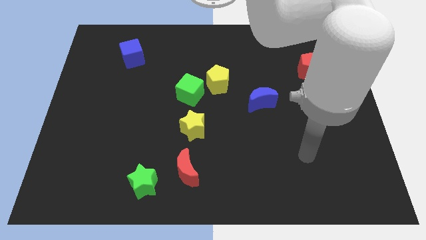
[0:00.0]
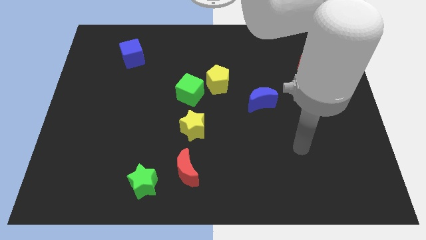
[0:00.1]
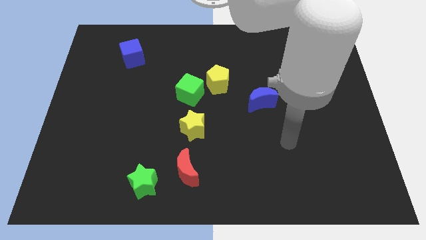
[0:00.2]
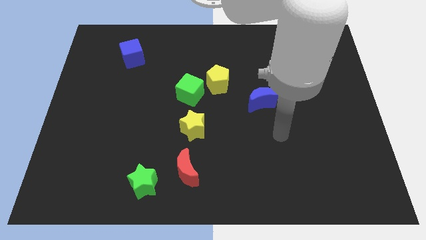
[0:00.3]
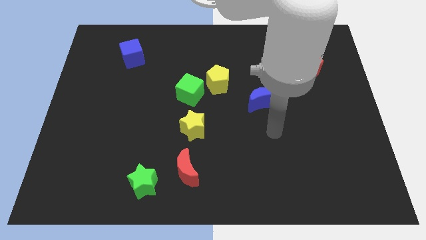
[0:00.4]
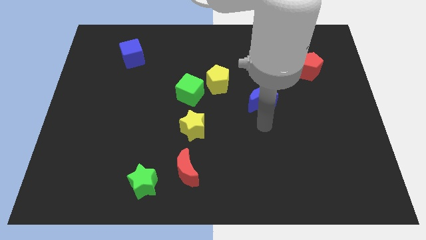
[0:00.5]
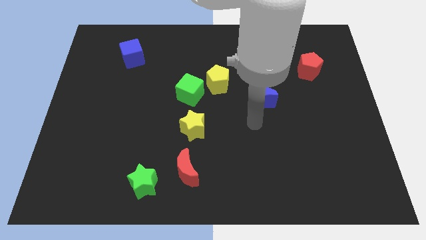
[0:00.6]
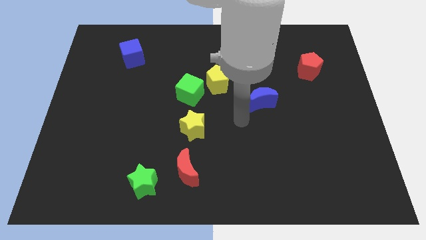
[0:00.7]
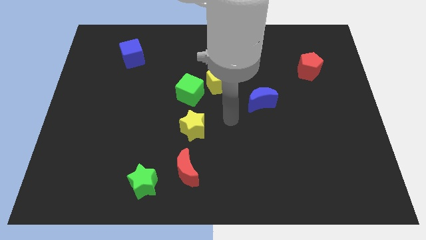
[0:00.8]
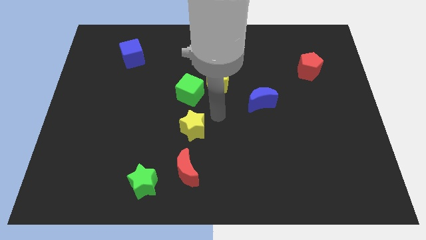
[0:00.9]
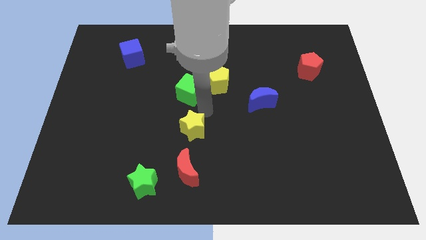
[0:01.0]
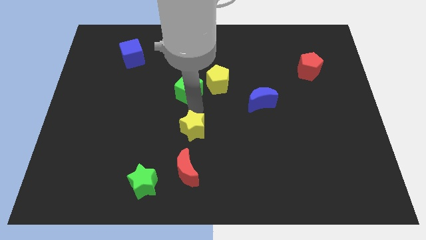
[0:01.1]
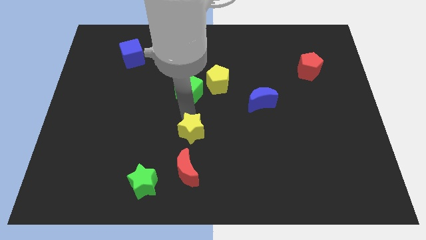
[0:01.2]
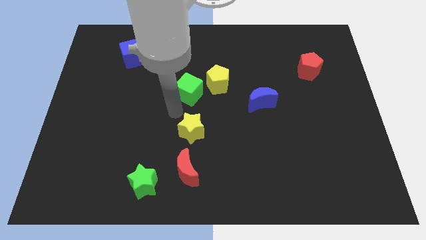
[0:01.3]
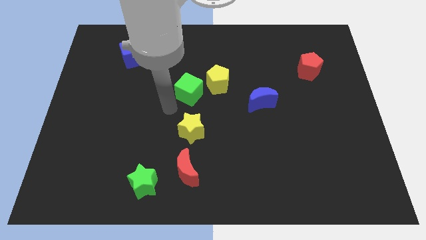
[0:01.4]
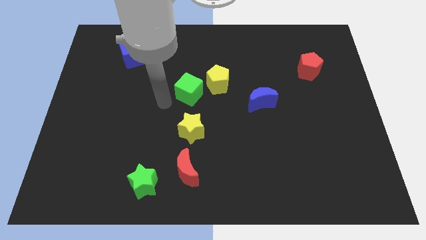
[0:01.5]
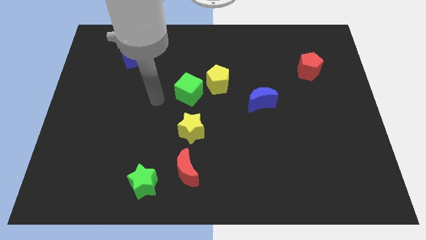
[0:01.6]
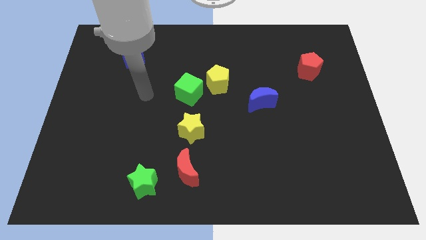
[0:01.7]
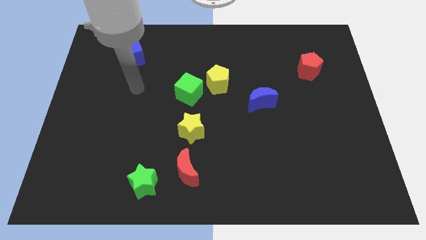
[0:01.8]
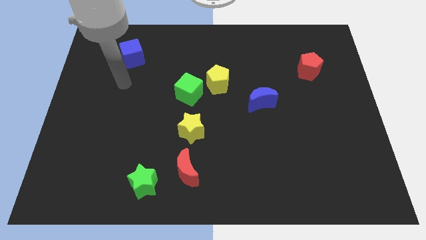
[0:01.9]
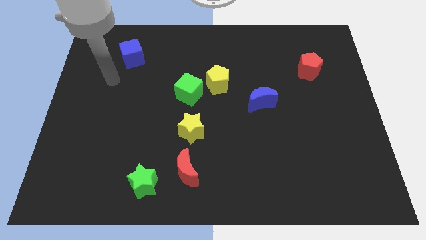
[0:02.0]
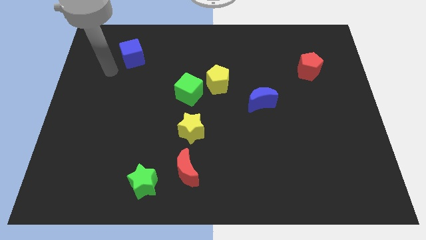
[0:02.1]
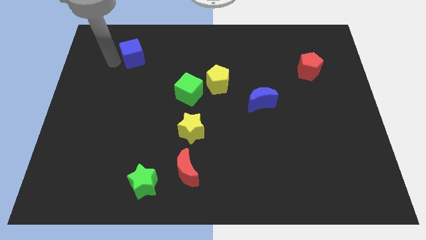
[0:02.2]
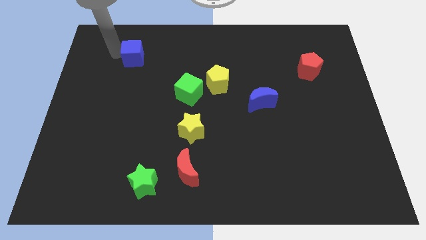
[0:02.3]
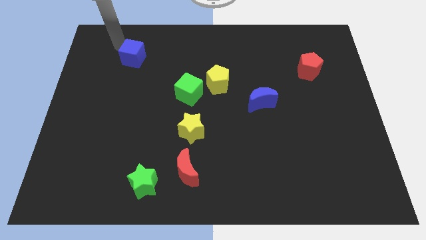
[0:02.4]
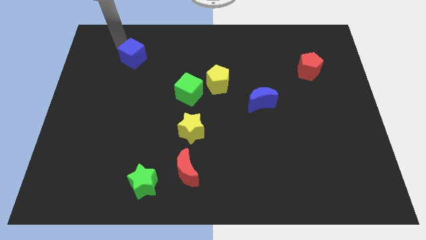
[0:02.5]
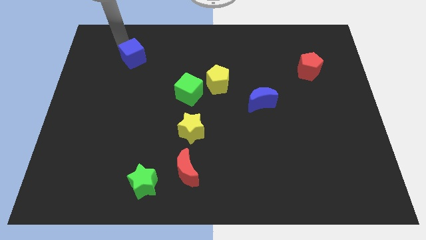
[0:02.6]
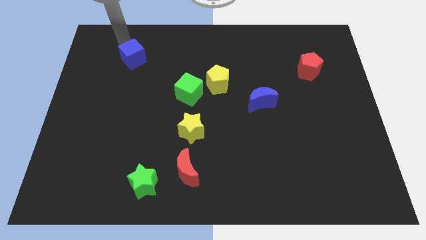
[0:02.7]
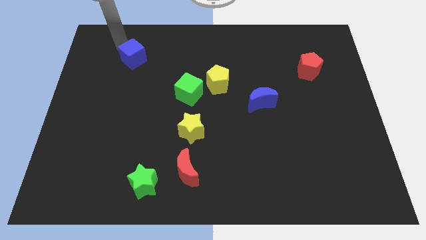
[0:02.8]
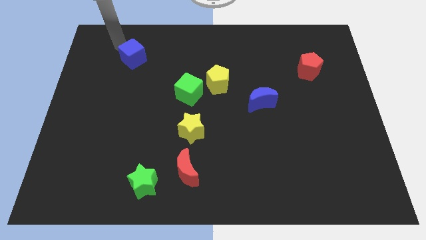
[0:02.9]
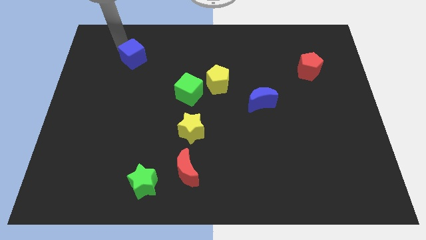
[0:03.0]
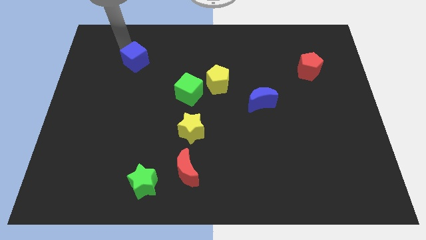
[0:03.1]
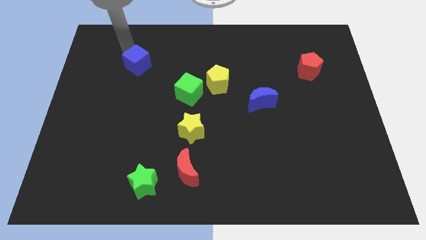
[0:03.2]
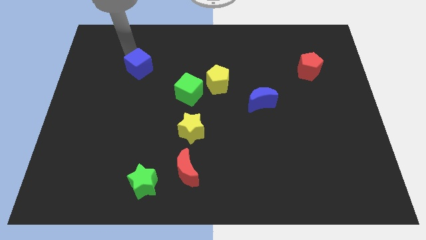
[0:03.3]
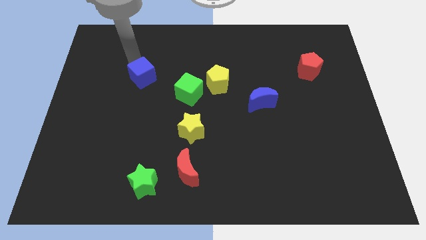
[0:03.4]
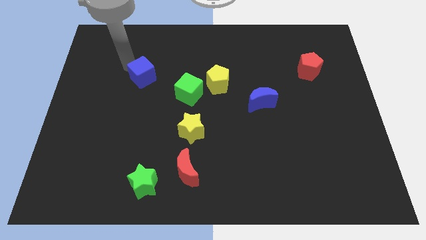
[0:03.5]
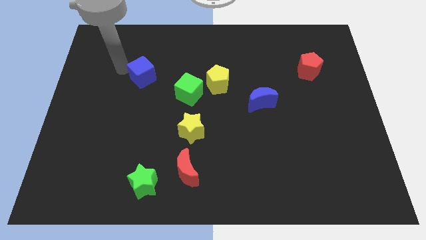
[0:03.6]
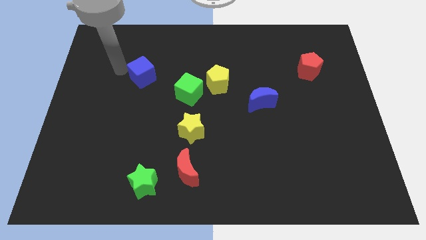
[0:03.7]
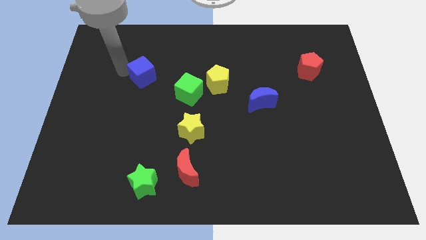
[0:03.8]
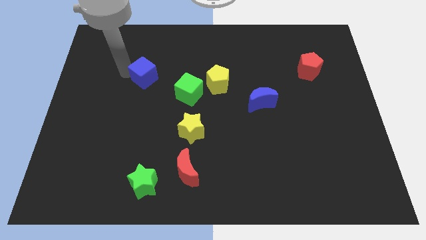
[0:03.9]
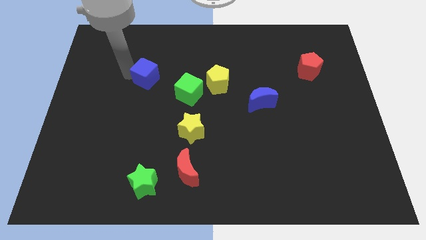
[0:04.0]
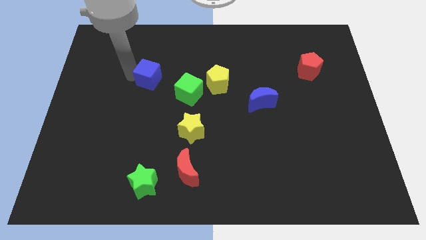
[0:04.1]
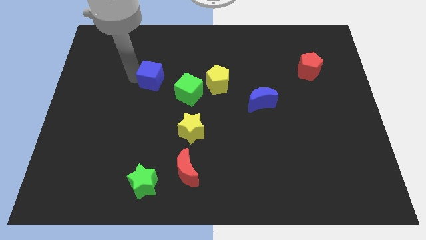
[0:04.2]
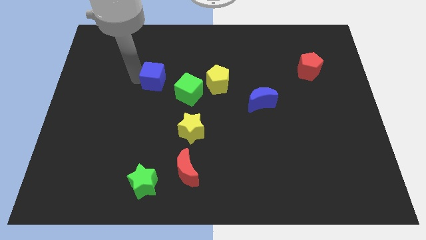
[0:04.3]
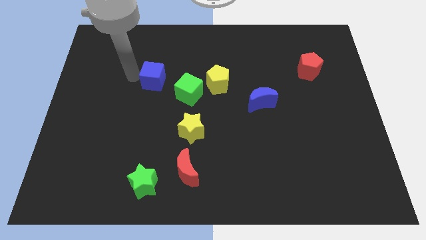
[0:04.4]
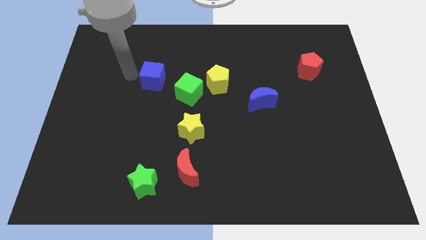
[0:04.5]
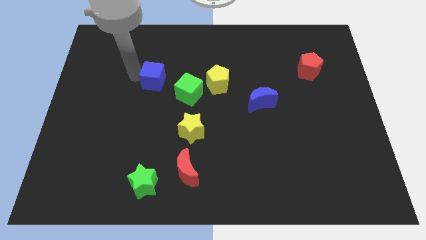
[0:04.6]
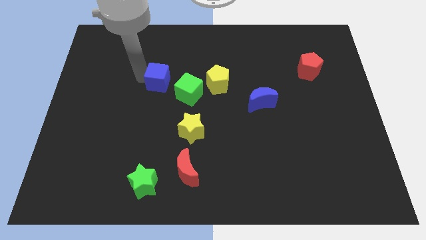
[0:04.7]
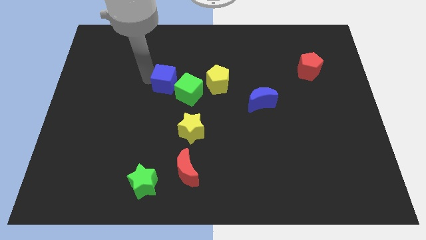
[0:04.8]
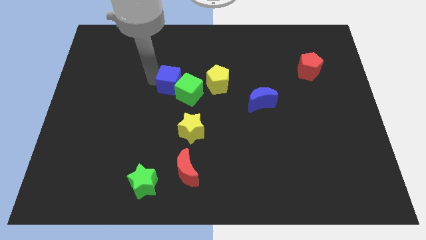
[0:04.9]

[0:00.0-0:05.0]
push the blue cube to the green cube

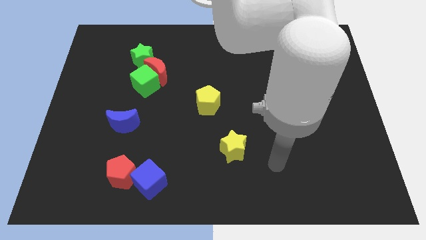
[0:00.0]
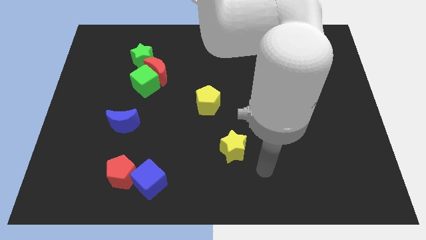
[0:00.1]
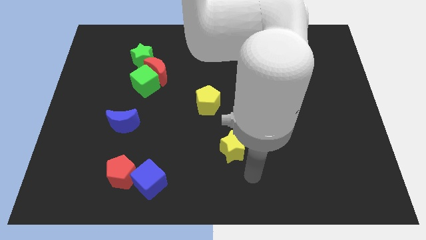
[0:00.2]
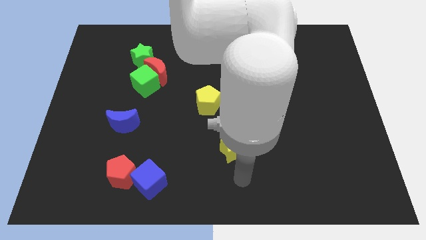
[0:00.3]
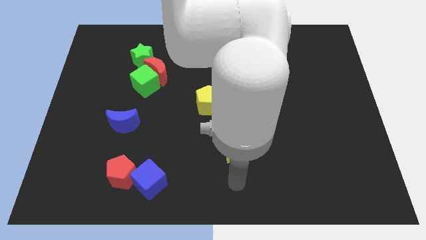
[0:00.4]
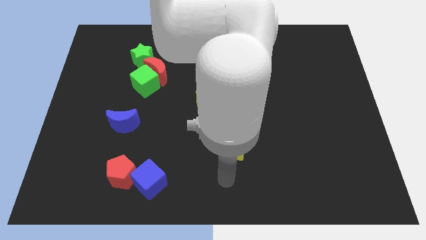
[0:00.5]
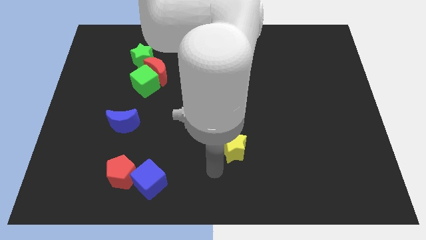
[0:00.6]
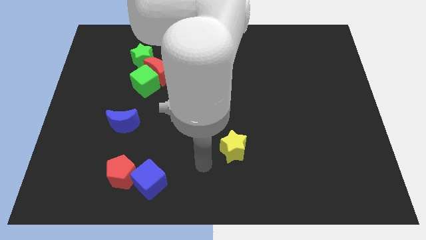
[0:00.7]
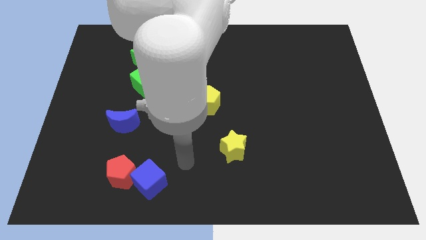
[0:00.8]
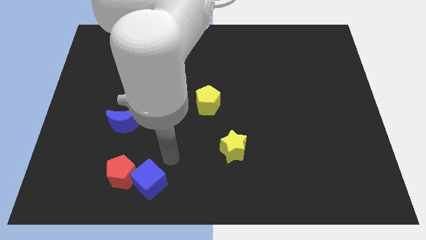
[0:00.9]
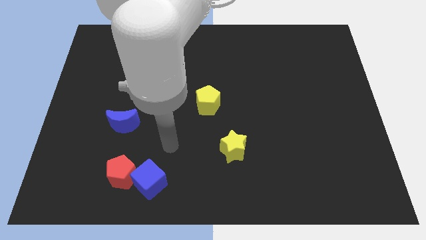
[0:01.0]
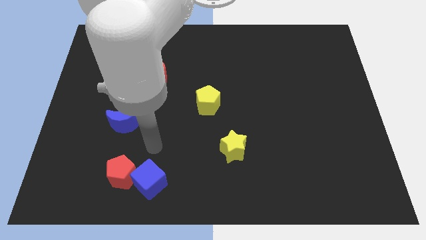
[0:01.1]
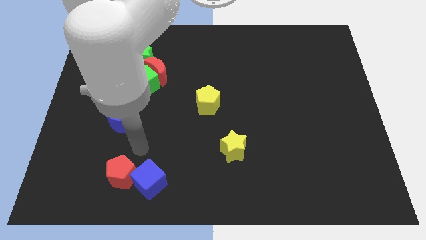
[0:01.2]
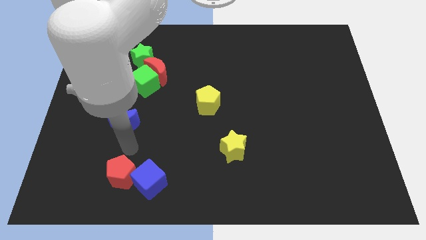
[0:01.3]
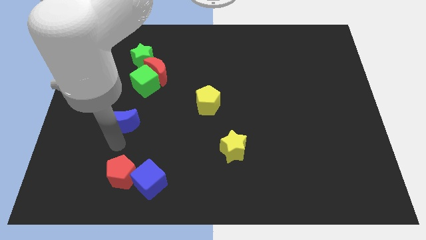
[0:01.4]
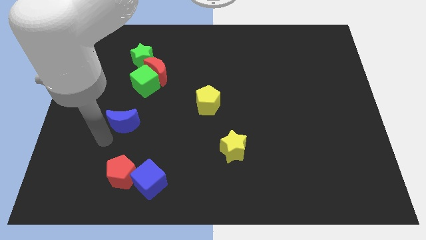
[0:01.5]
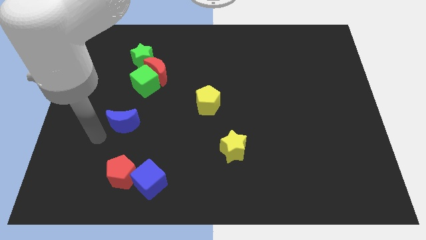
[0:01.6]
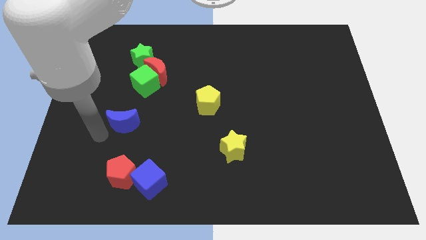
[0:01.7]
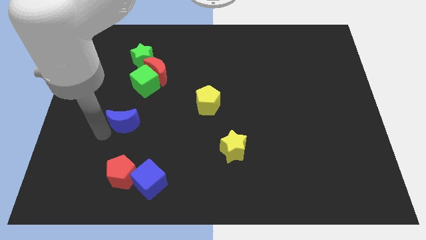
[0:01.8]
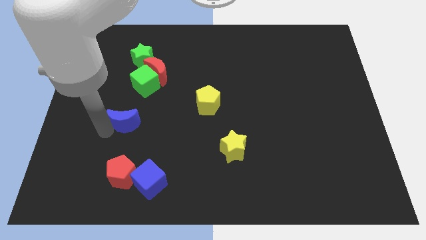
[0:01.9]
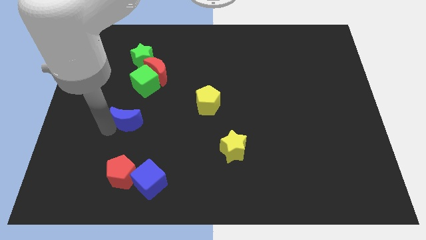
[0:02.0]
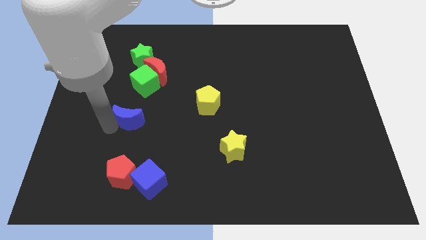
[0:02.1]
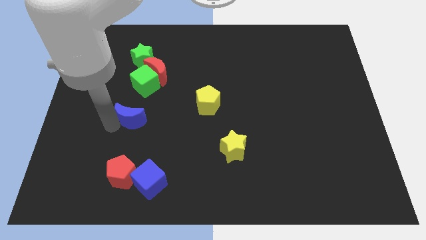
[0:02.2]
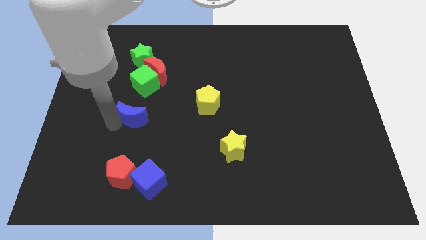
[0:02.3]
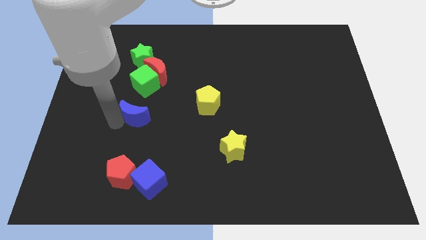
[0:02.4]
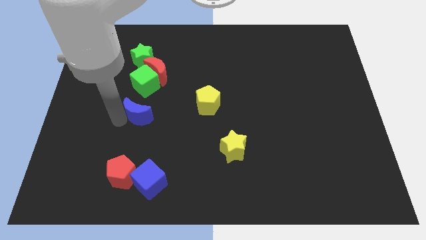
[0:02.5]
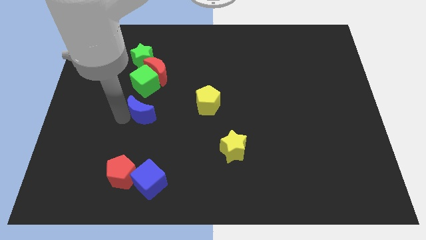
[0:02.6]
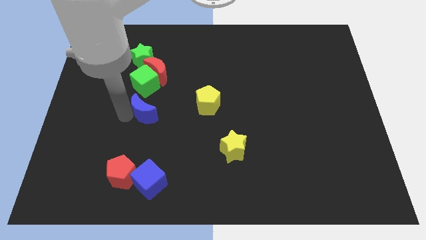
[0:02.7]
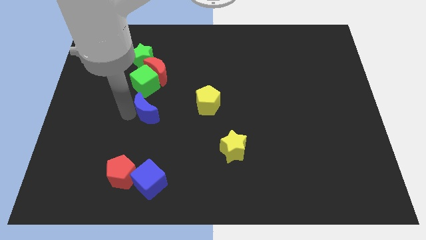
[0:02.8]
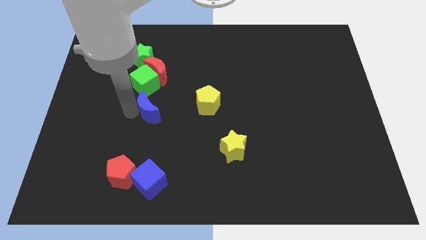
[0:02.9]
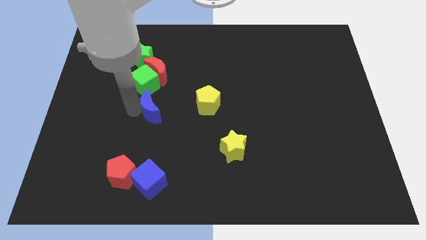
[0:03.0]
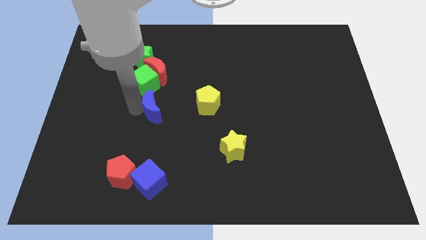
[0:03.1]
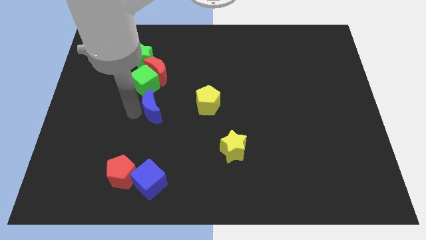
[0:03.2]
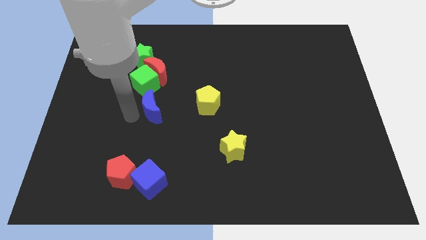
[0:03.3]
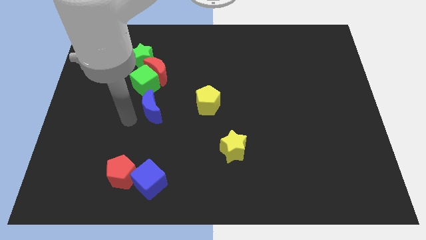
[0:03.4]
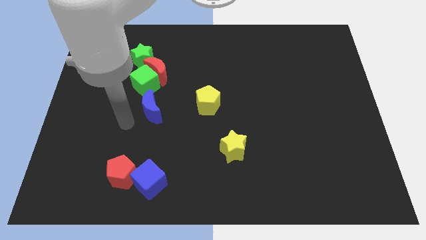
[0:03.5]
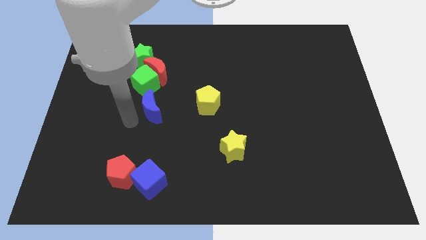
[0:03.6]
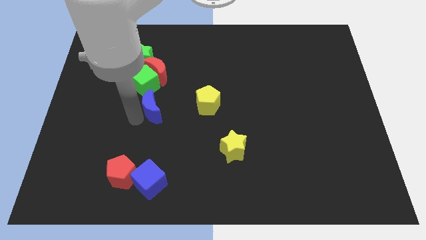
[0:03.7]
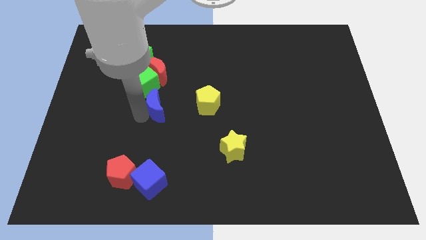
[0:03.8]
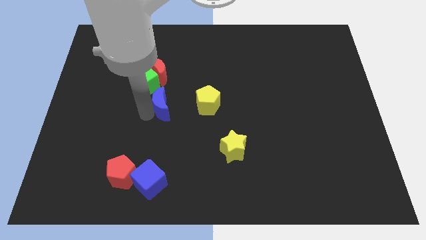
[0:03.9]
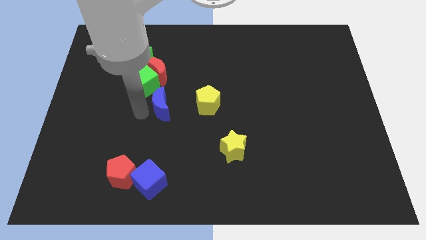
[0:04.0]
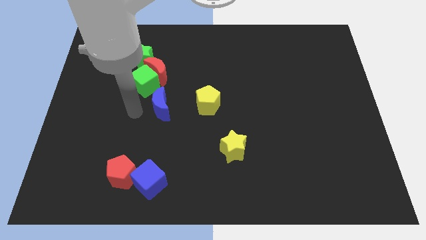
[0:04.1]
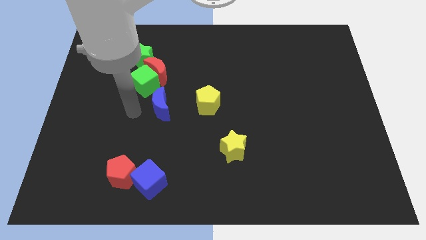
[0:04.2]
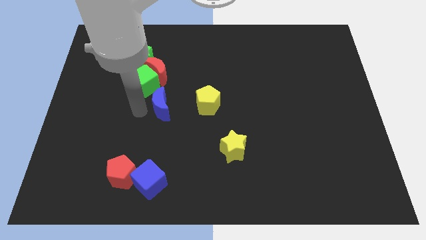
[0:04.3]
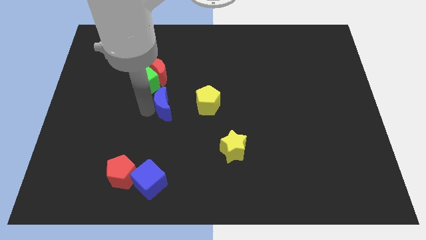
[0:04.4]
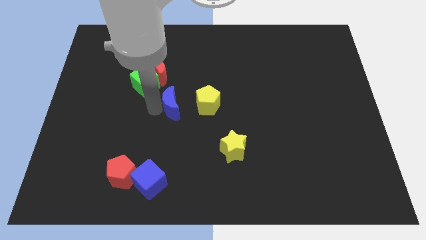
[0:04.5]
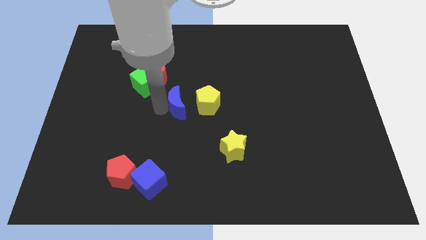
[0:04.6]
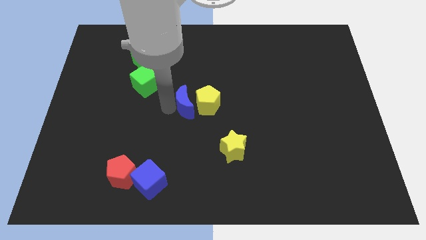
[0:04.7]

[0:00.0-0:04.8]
slide the blue moon next to the yellow pentagon
